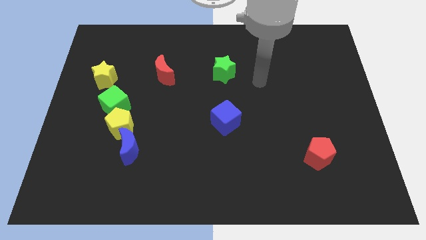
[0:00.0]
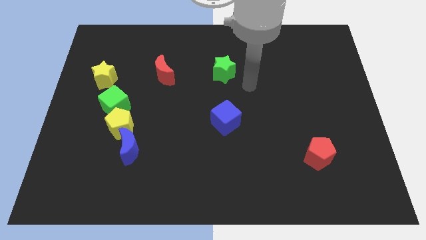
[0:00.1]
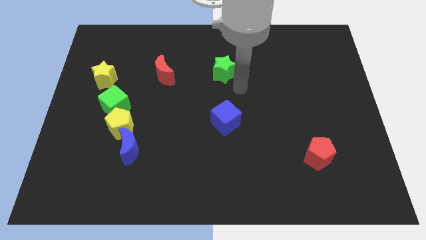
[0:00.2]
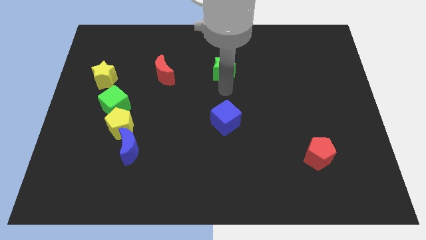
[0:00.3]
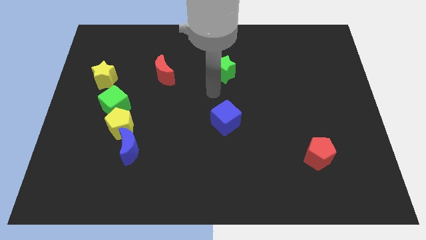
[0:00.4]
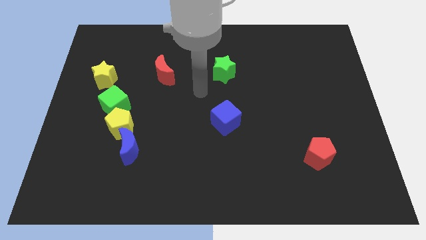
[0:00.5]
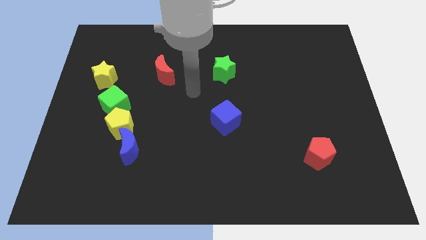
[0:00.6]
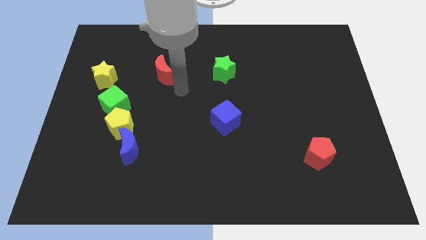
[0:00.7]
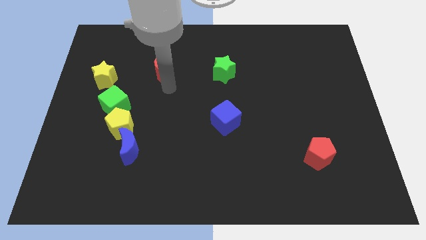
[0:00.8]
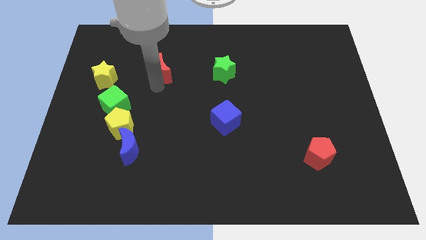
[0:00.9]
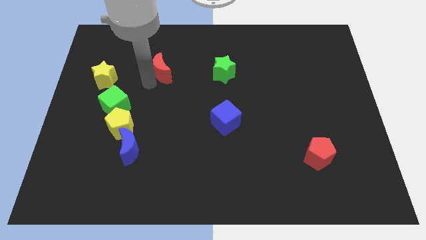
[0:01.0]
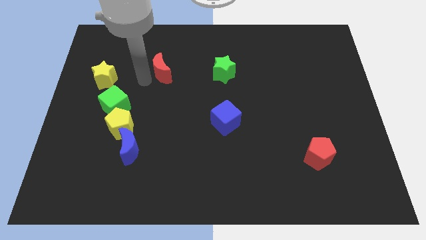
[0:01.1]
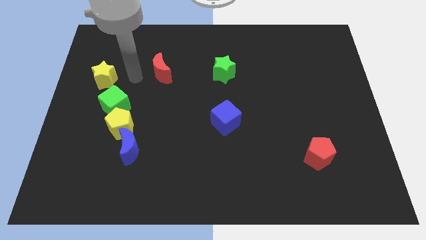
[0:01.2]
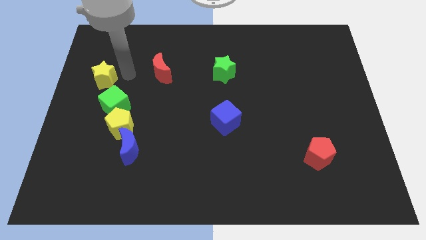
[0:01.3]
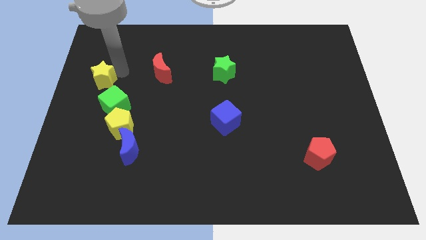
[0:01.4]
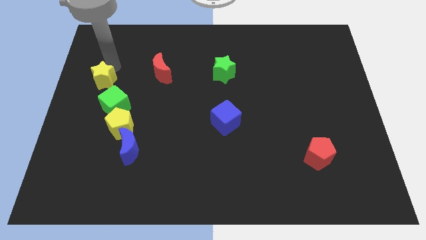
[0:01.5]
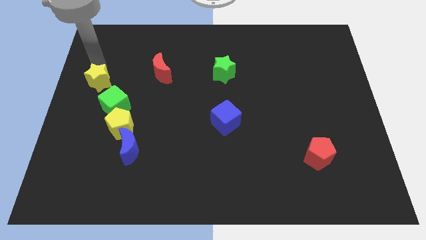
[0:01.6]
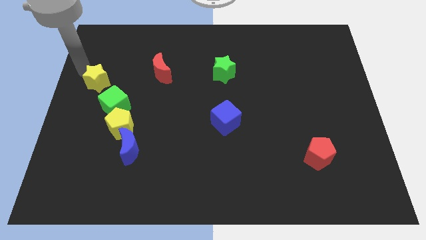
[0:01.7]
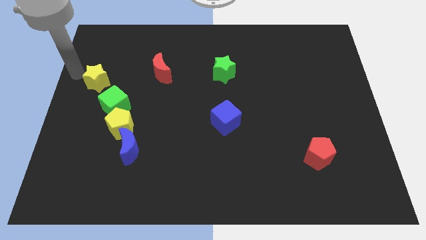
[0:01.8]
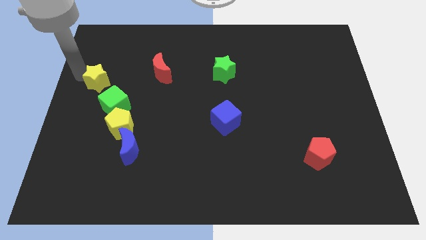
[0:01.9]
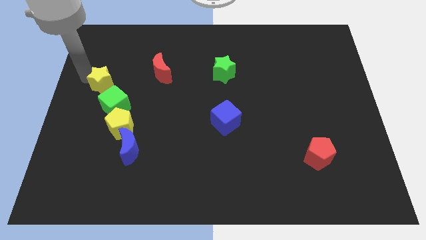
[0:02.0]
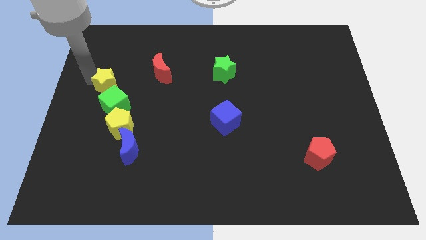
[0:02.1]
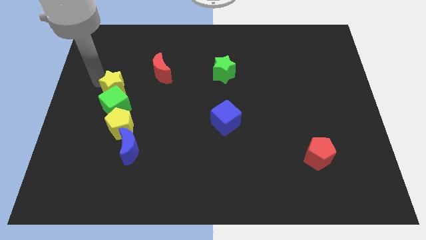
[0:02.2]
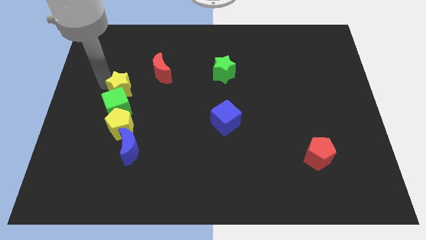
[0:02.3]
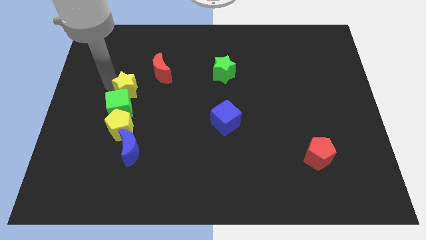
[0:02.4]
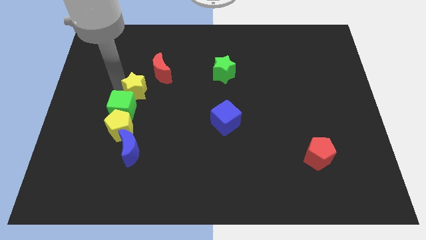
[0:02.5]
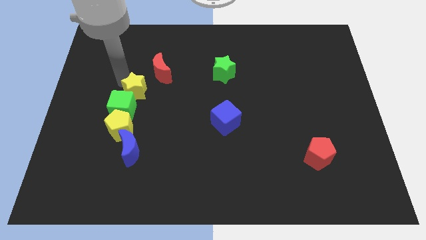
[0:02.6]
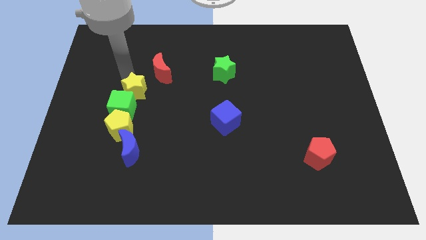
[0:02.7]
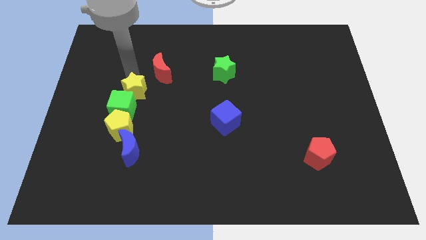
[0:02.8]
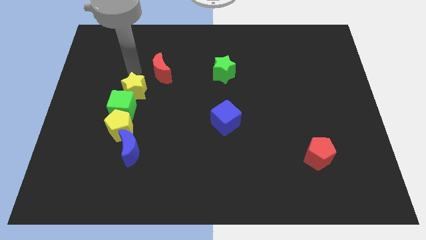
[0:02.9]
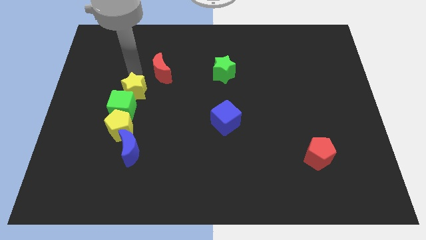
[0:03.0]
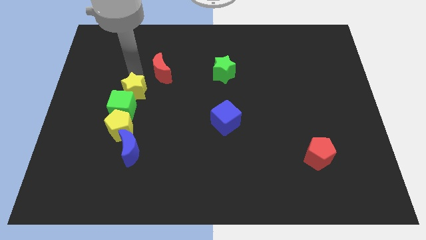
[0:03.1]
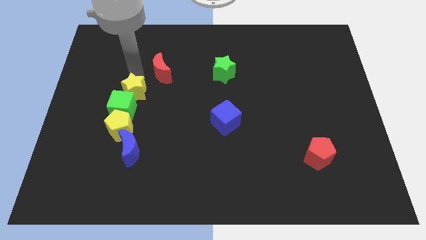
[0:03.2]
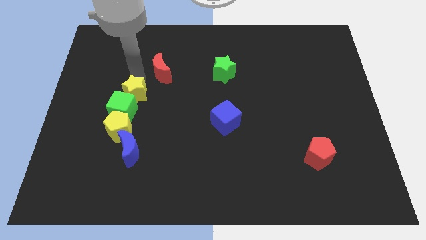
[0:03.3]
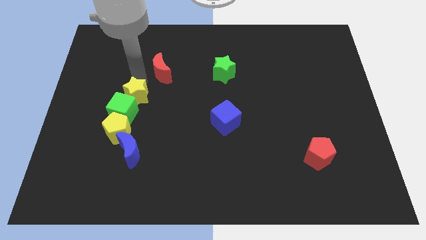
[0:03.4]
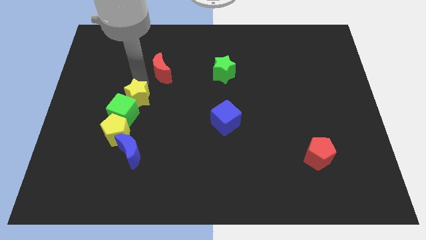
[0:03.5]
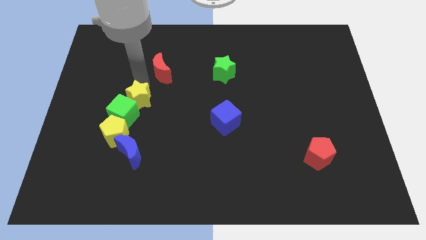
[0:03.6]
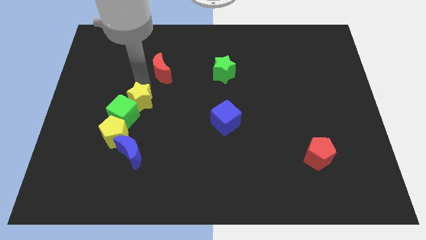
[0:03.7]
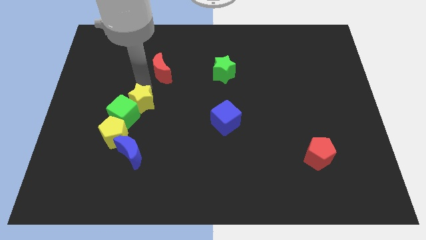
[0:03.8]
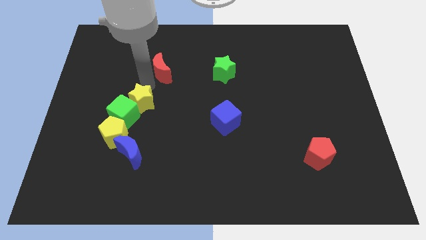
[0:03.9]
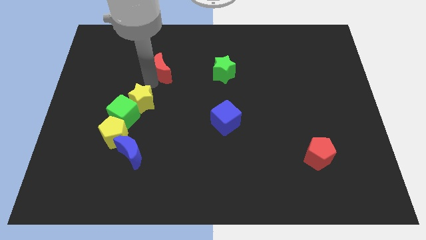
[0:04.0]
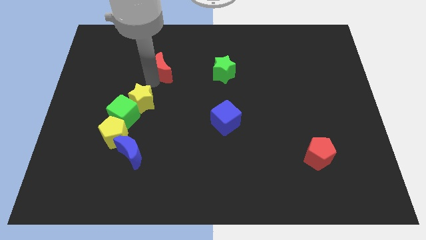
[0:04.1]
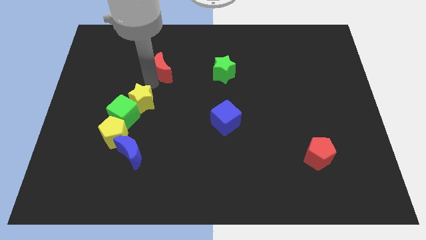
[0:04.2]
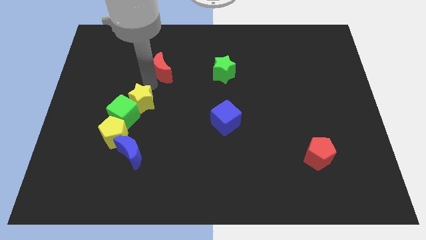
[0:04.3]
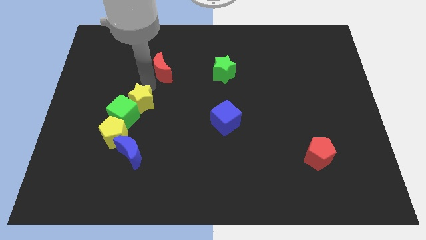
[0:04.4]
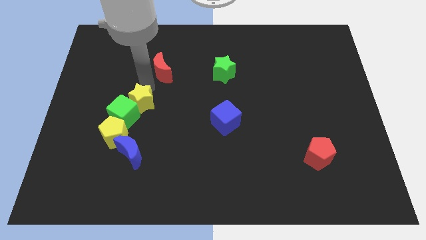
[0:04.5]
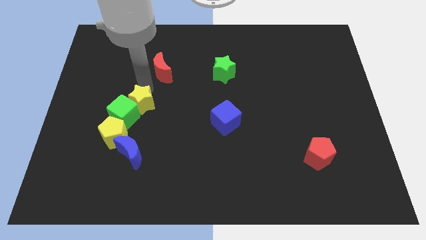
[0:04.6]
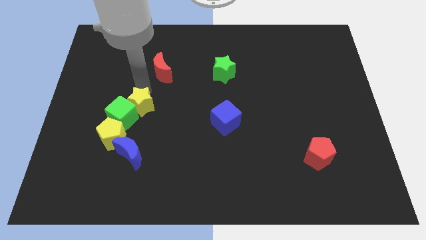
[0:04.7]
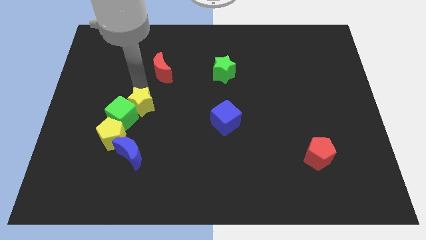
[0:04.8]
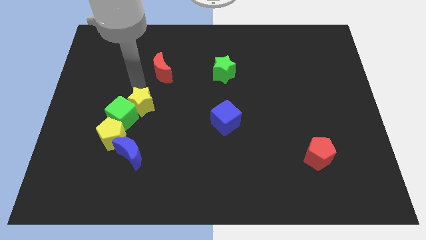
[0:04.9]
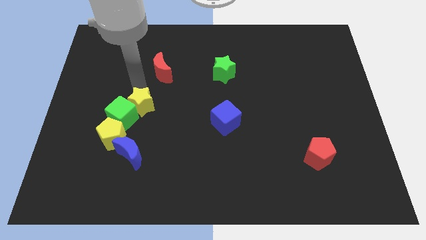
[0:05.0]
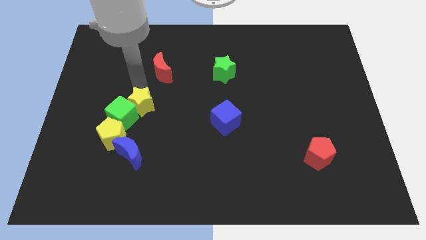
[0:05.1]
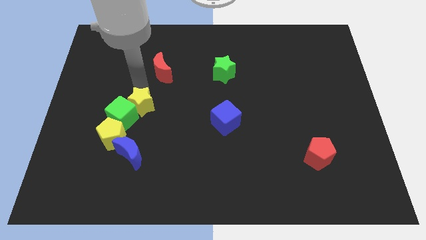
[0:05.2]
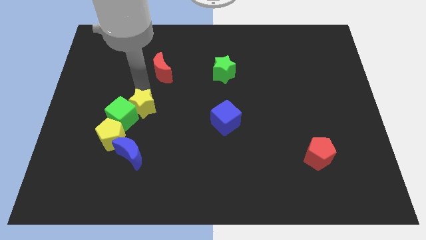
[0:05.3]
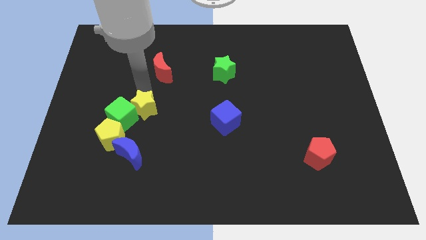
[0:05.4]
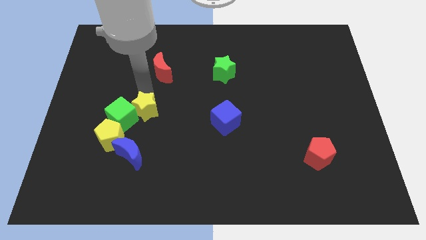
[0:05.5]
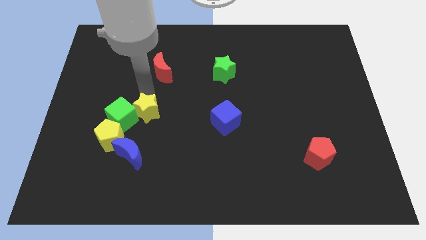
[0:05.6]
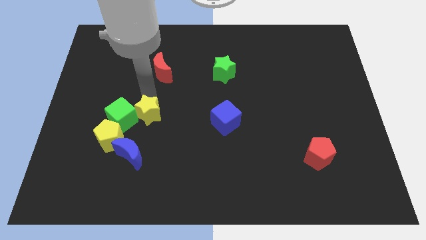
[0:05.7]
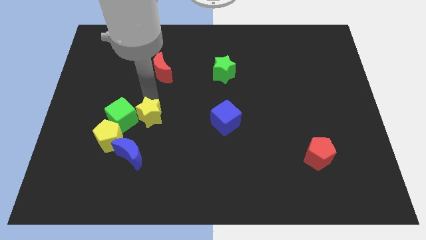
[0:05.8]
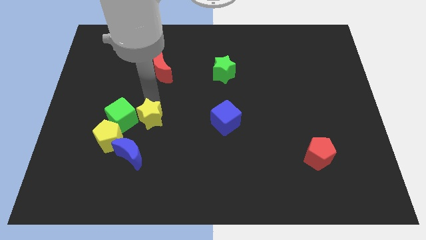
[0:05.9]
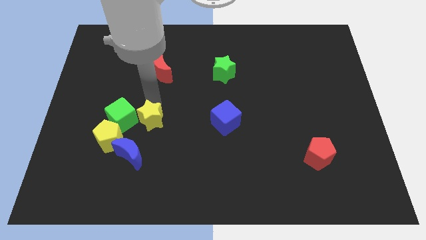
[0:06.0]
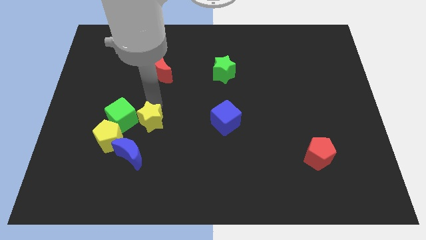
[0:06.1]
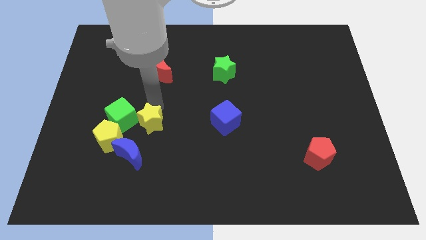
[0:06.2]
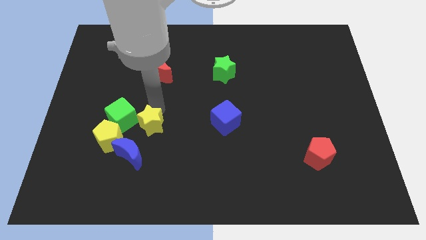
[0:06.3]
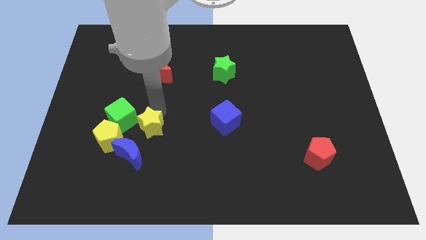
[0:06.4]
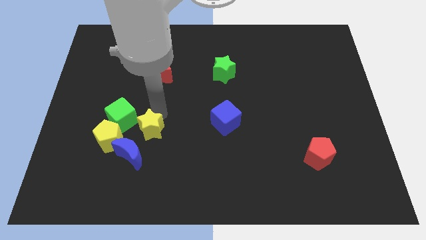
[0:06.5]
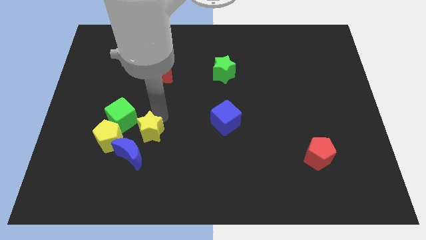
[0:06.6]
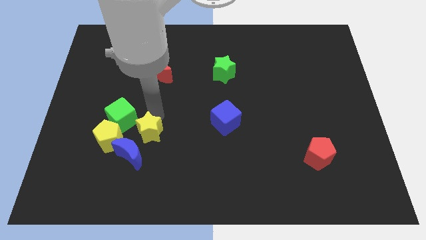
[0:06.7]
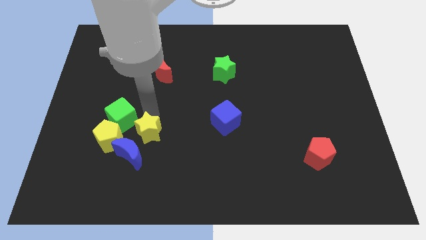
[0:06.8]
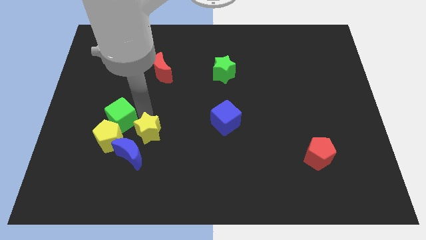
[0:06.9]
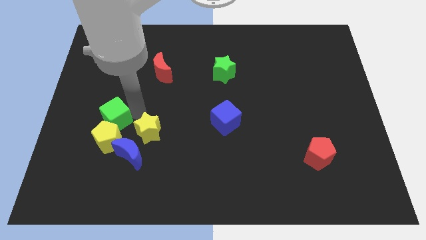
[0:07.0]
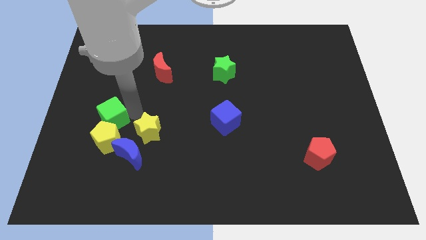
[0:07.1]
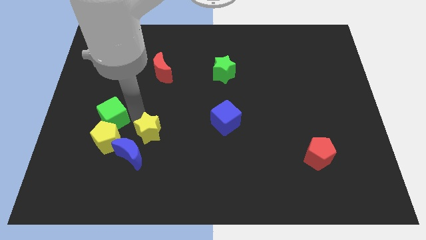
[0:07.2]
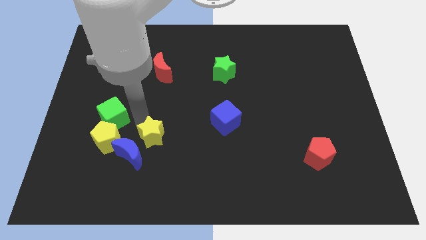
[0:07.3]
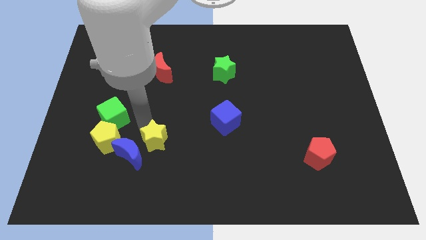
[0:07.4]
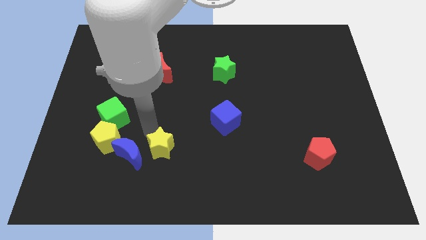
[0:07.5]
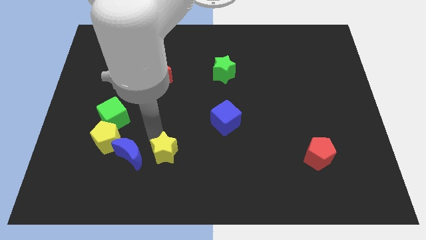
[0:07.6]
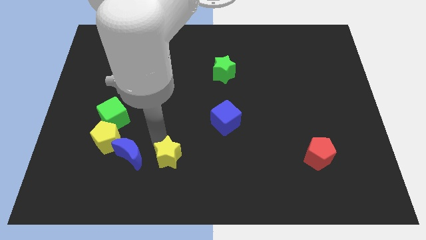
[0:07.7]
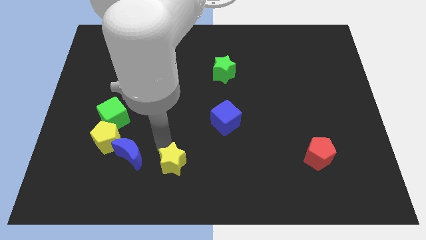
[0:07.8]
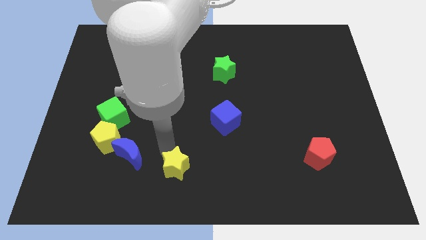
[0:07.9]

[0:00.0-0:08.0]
move the yellow star to the bottom
